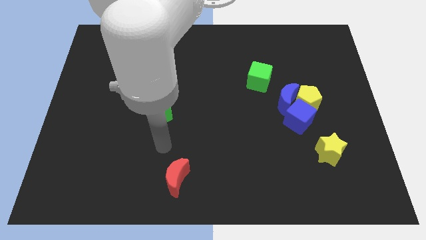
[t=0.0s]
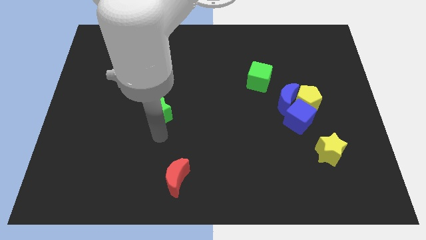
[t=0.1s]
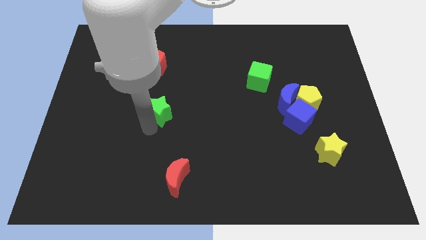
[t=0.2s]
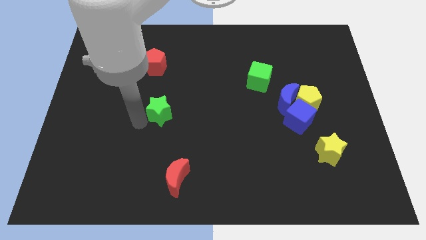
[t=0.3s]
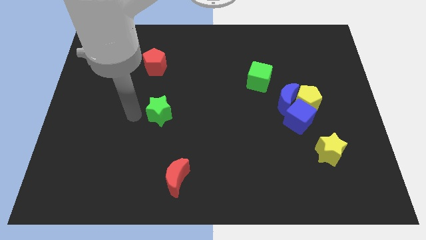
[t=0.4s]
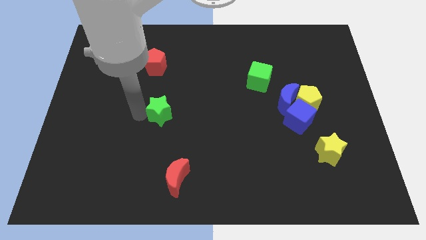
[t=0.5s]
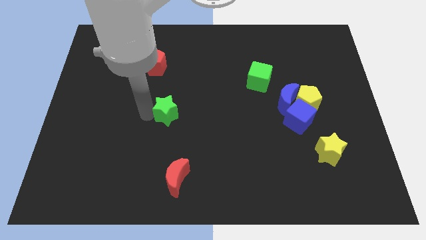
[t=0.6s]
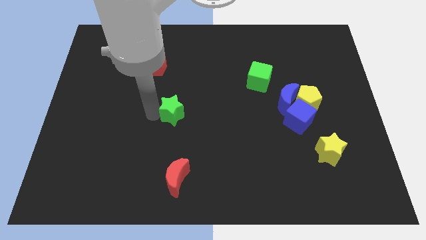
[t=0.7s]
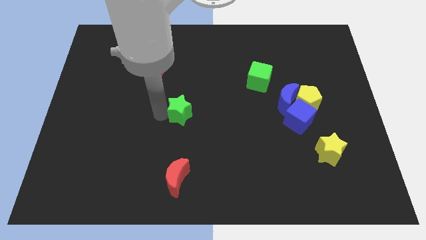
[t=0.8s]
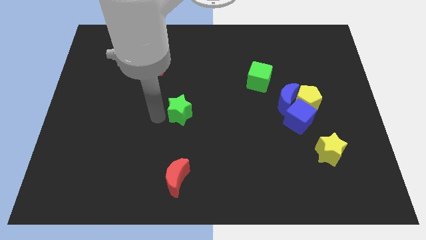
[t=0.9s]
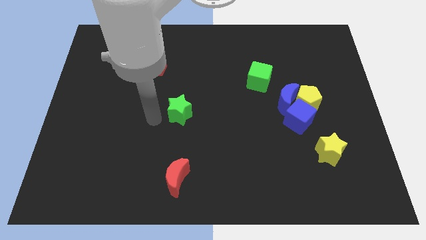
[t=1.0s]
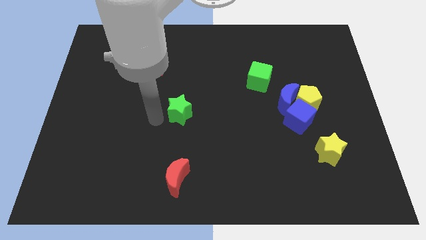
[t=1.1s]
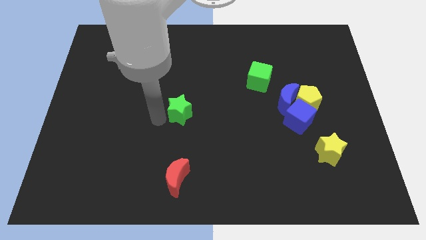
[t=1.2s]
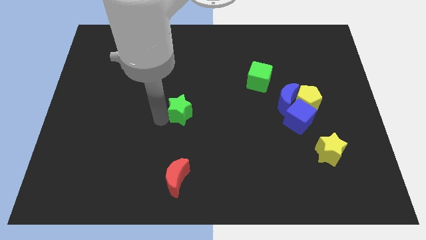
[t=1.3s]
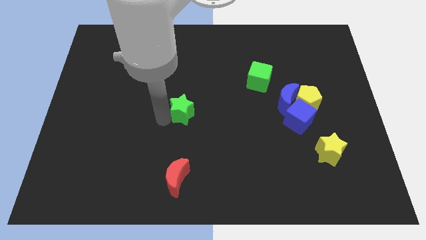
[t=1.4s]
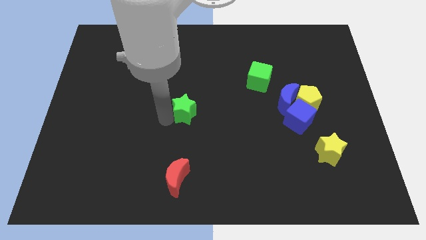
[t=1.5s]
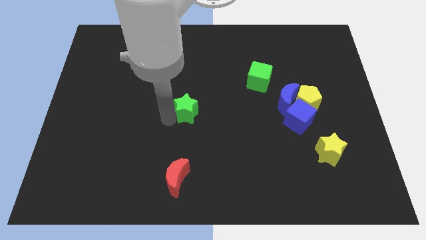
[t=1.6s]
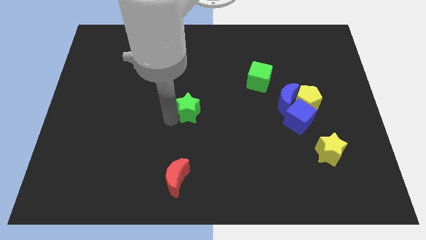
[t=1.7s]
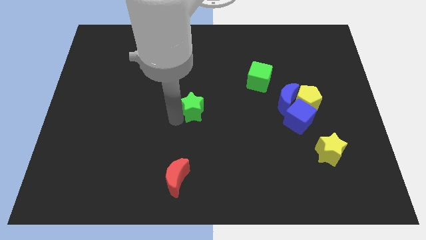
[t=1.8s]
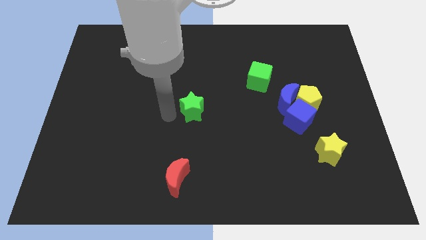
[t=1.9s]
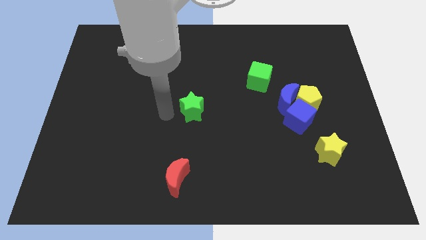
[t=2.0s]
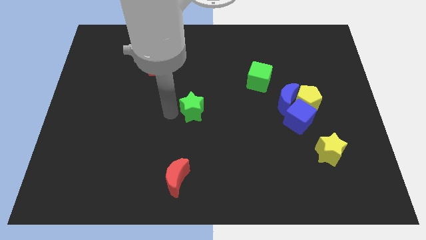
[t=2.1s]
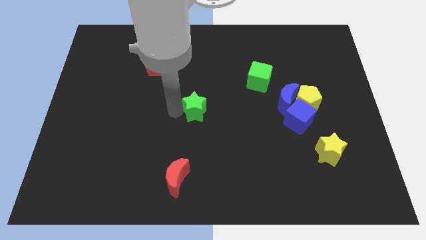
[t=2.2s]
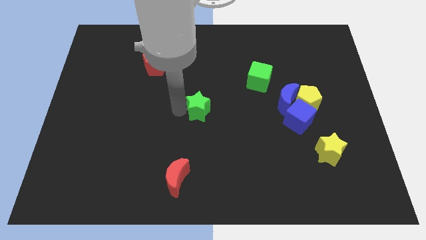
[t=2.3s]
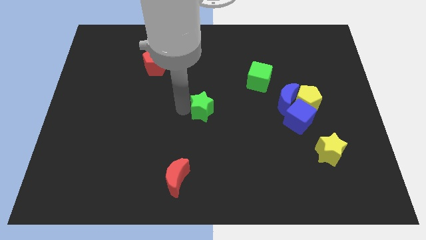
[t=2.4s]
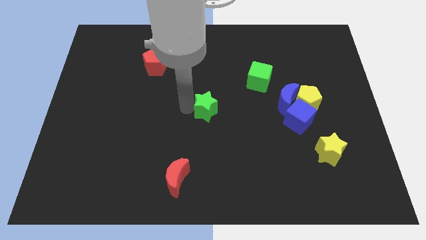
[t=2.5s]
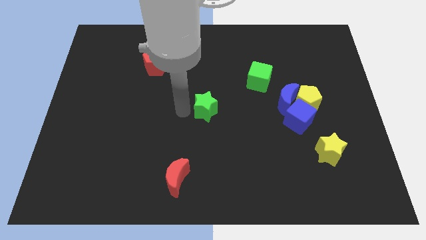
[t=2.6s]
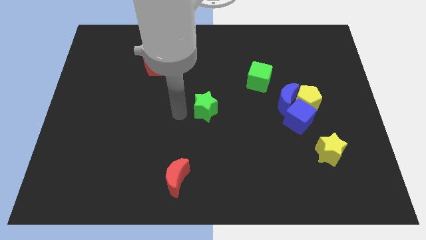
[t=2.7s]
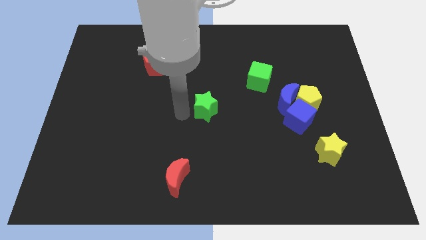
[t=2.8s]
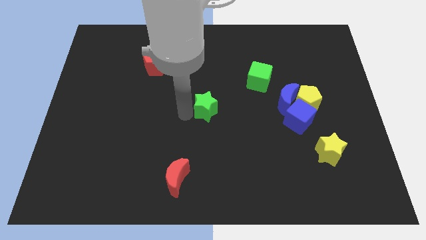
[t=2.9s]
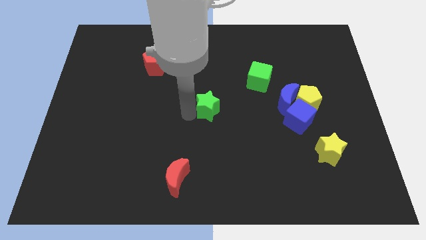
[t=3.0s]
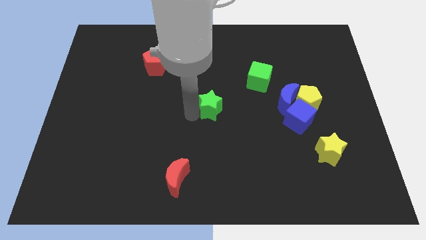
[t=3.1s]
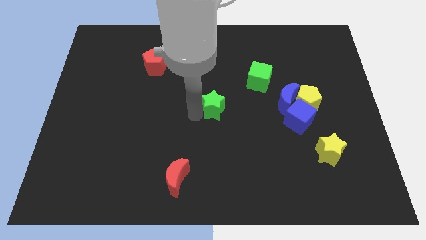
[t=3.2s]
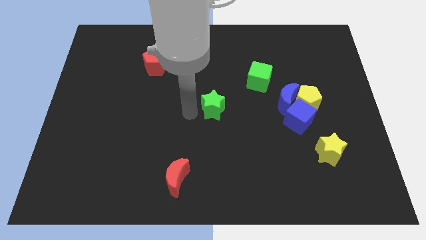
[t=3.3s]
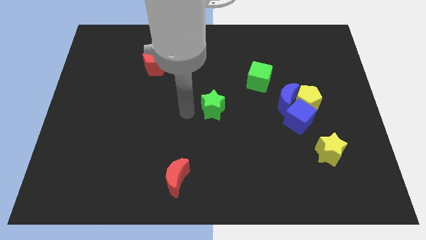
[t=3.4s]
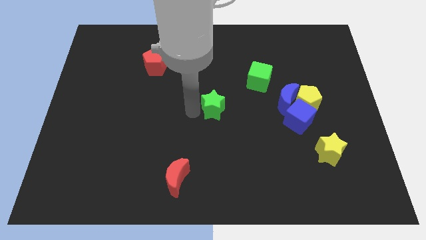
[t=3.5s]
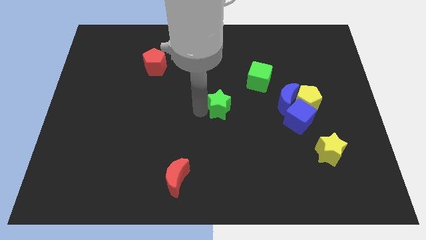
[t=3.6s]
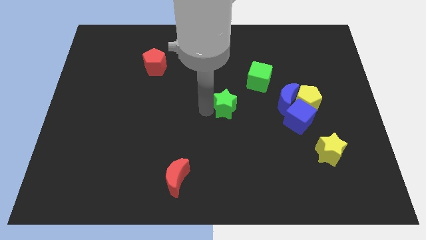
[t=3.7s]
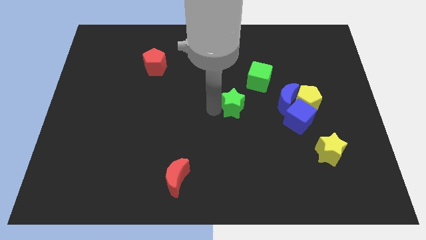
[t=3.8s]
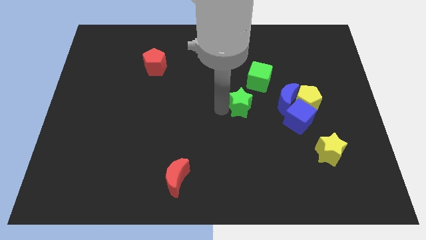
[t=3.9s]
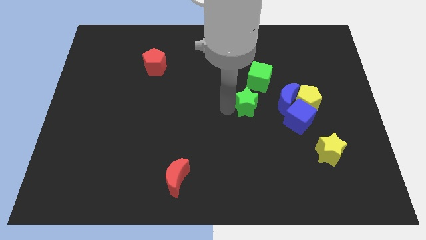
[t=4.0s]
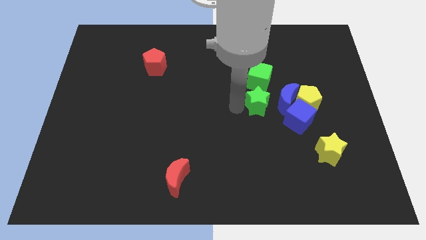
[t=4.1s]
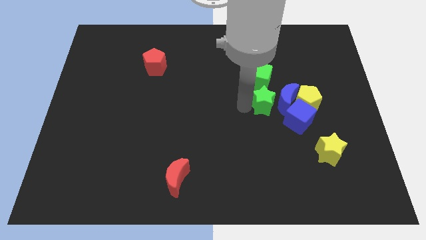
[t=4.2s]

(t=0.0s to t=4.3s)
move the green star next to the blue moon

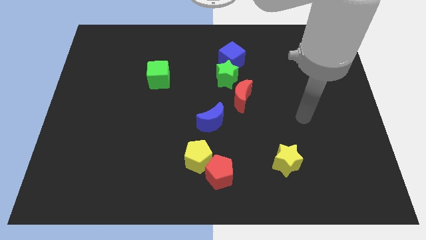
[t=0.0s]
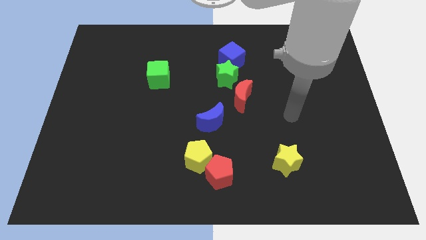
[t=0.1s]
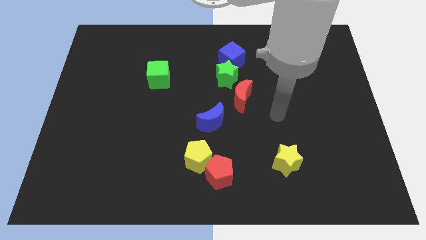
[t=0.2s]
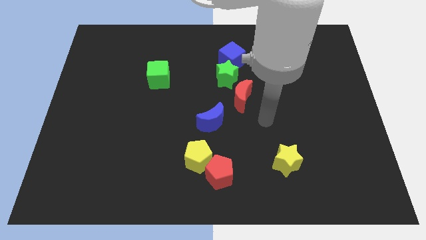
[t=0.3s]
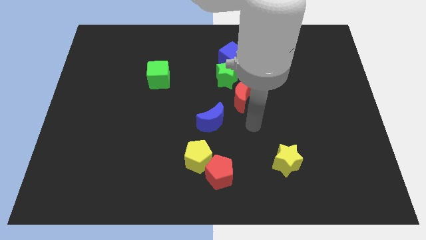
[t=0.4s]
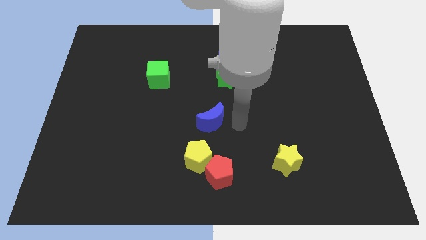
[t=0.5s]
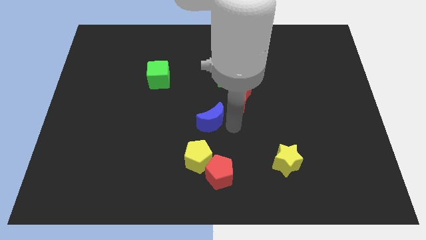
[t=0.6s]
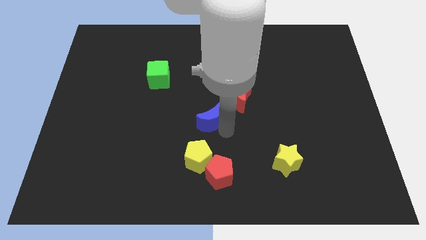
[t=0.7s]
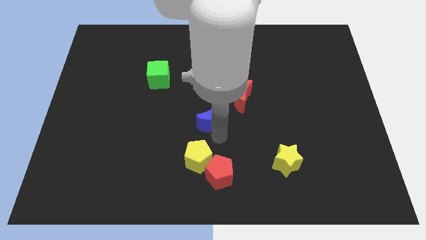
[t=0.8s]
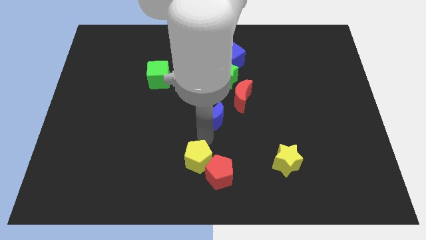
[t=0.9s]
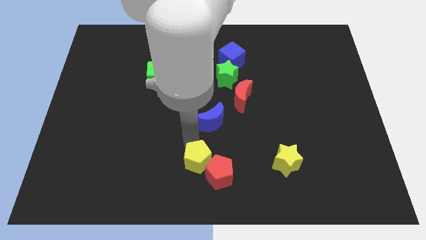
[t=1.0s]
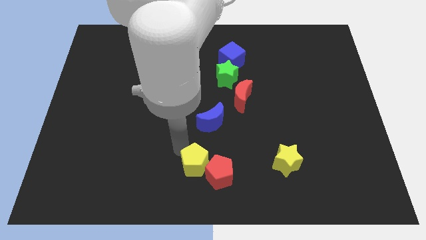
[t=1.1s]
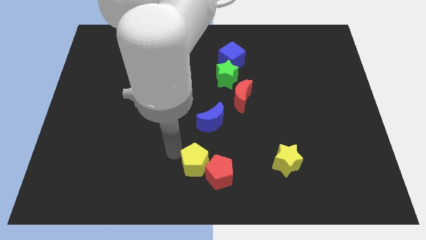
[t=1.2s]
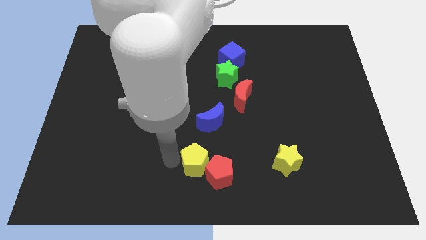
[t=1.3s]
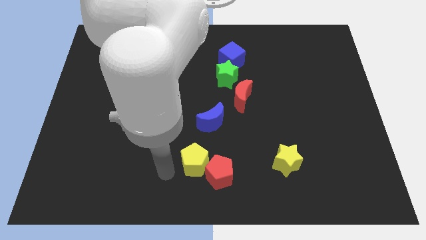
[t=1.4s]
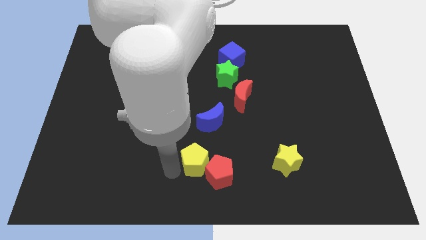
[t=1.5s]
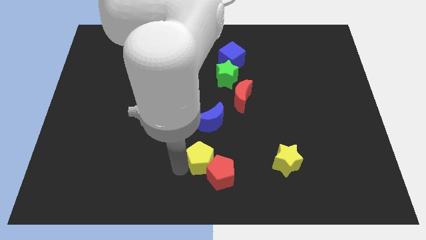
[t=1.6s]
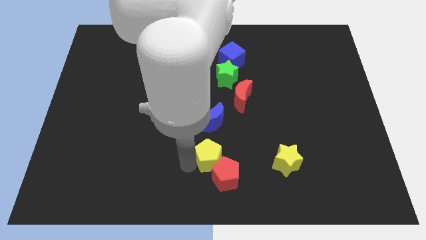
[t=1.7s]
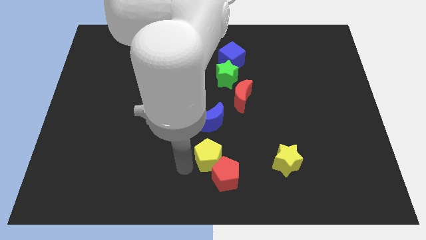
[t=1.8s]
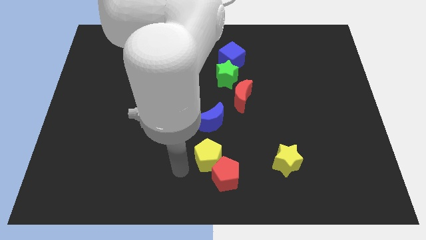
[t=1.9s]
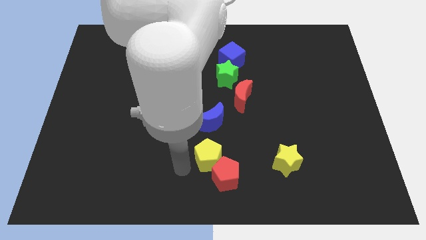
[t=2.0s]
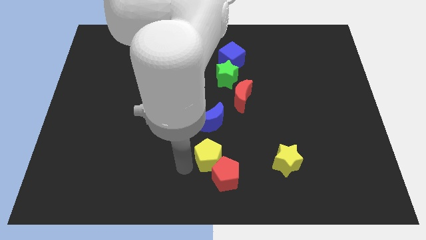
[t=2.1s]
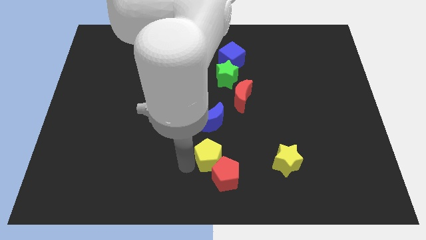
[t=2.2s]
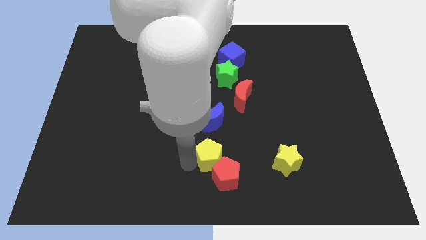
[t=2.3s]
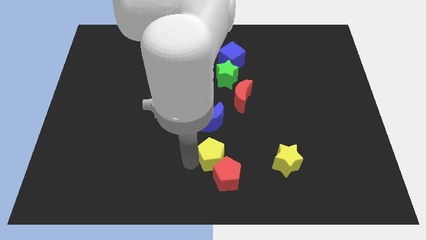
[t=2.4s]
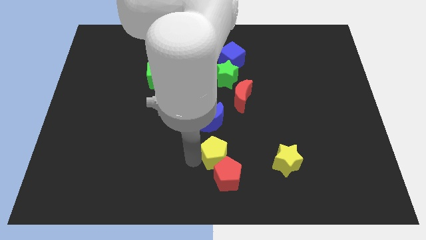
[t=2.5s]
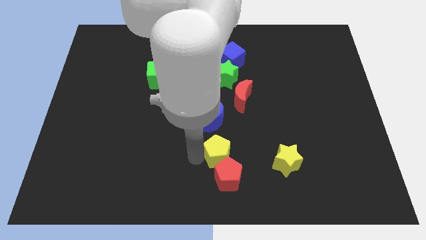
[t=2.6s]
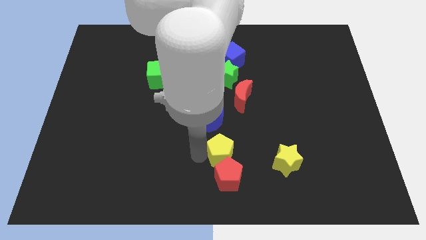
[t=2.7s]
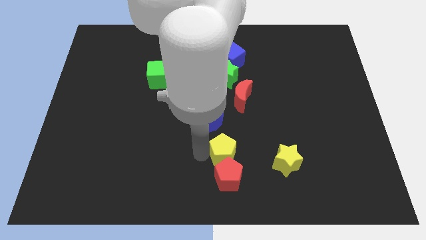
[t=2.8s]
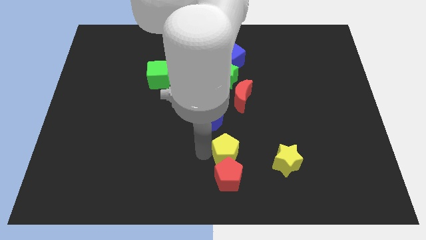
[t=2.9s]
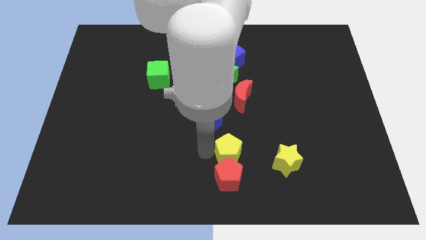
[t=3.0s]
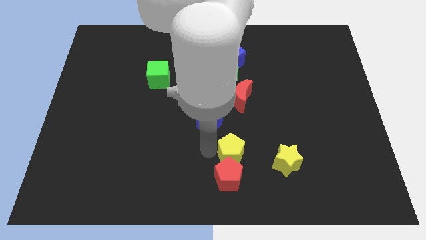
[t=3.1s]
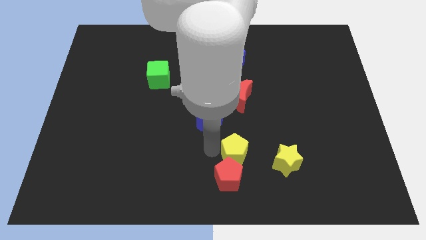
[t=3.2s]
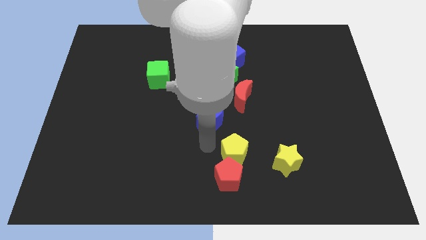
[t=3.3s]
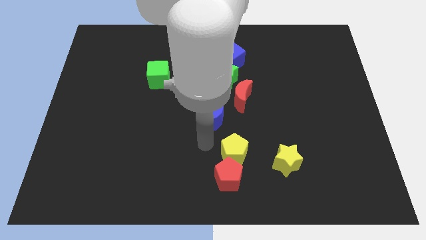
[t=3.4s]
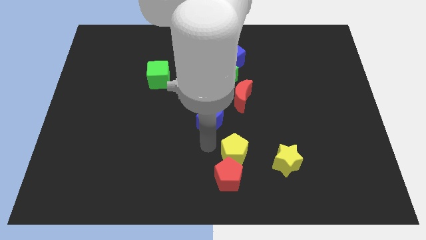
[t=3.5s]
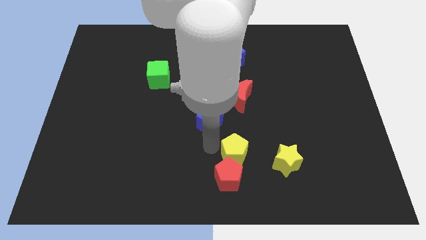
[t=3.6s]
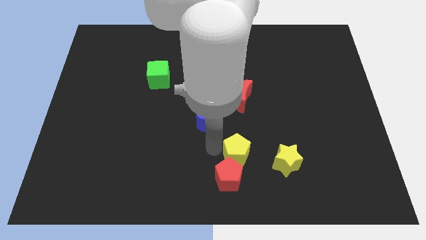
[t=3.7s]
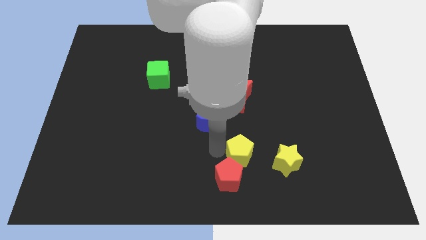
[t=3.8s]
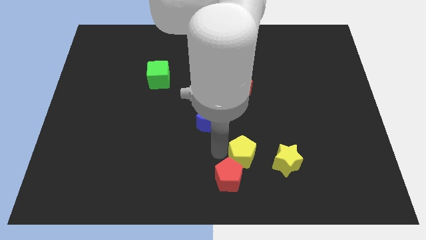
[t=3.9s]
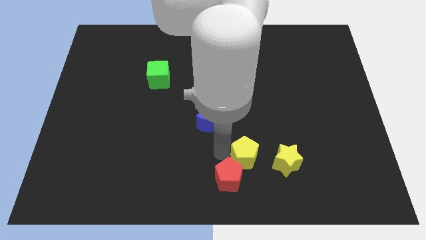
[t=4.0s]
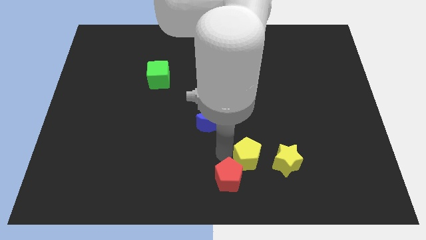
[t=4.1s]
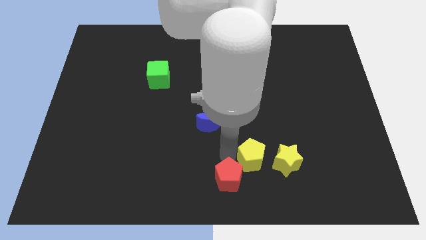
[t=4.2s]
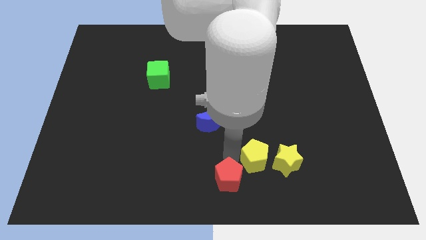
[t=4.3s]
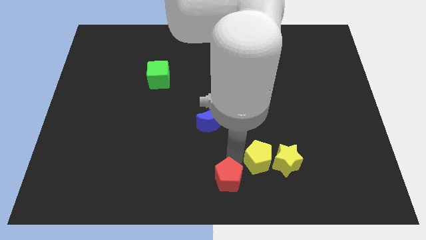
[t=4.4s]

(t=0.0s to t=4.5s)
put the yellow pentagon close to the yellow star
